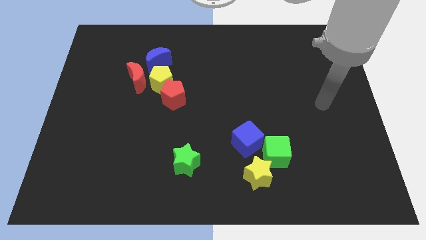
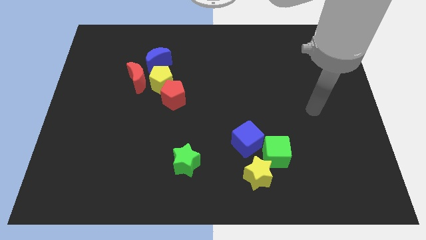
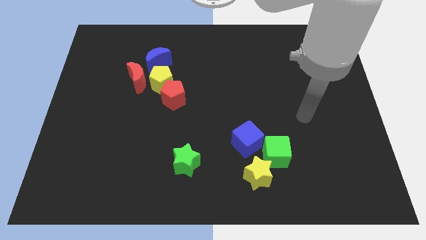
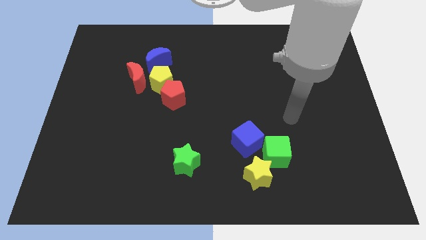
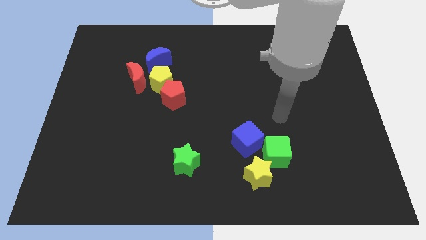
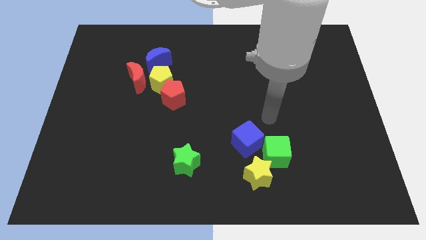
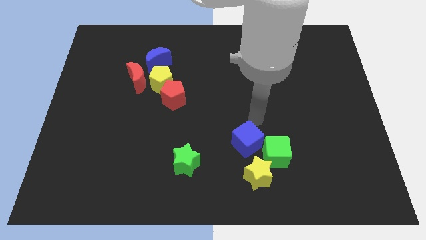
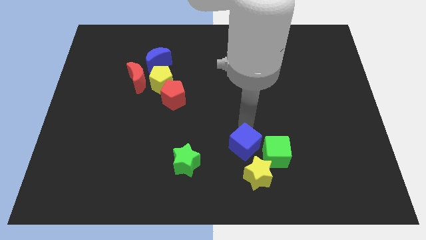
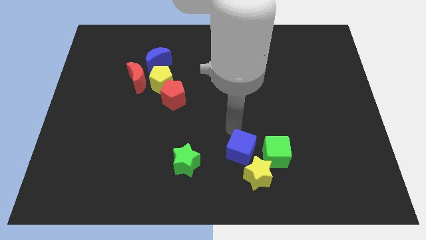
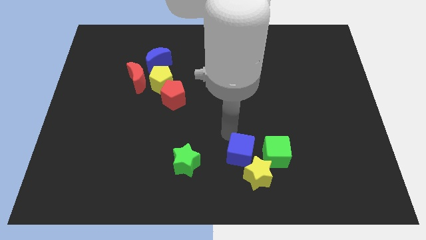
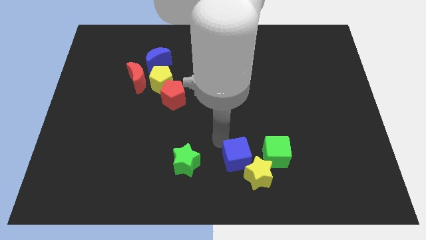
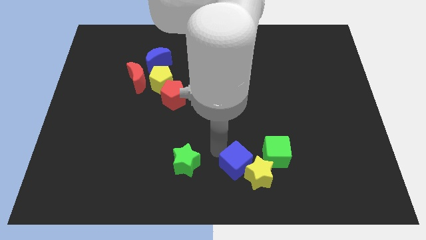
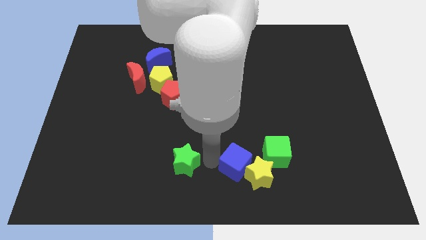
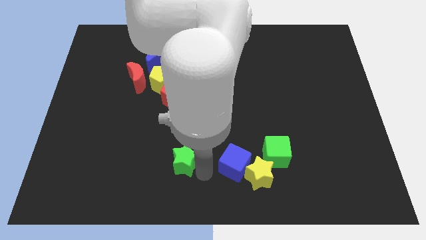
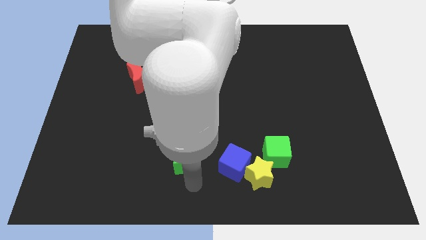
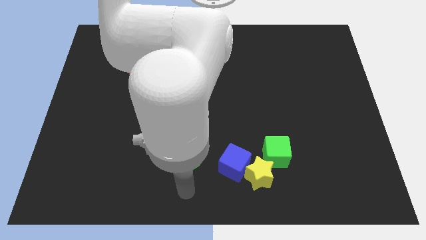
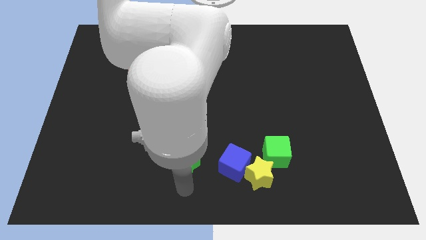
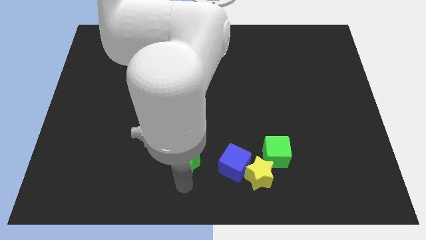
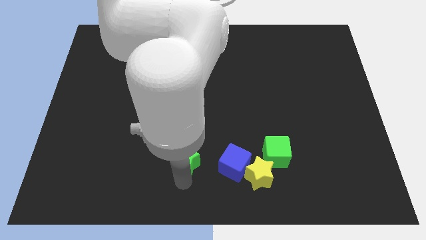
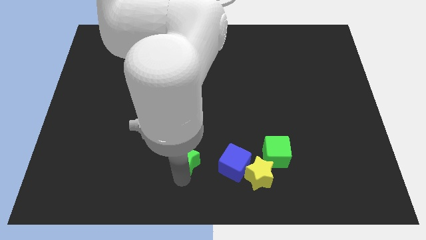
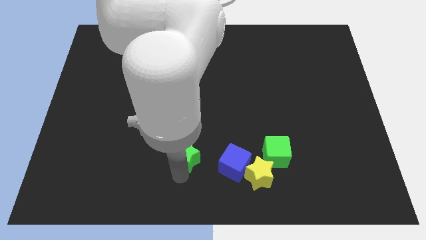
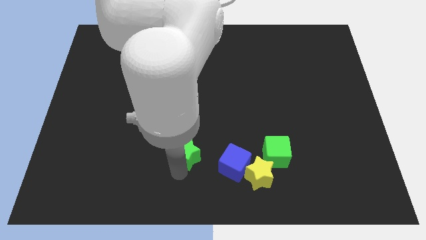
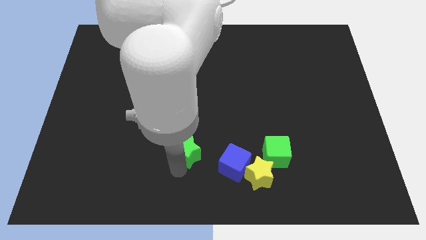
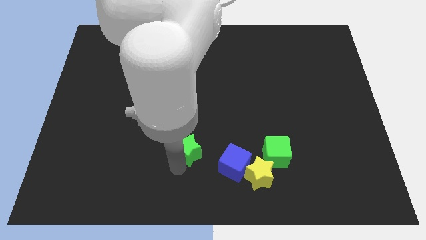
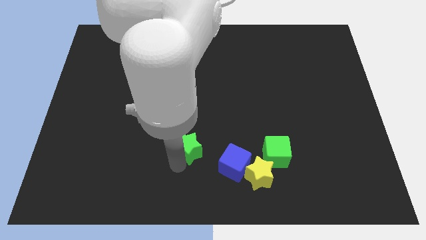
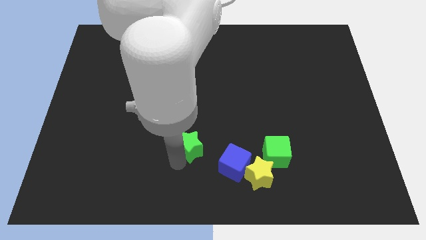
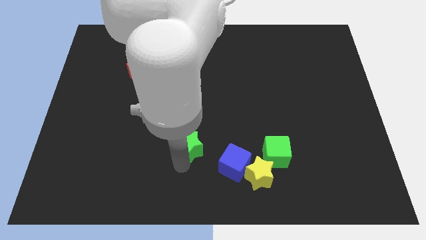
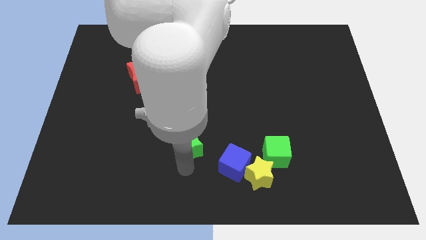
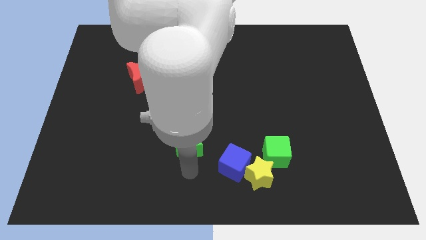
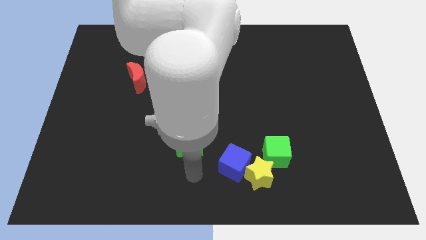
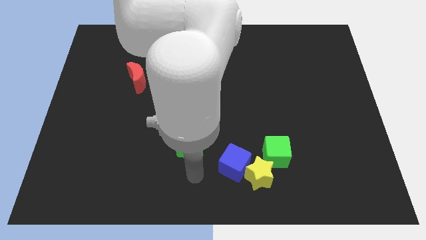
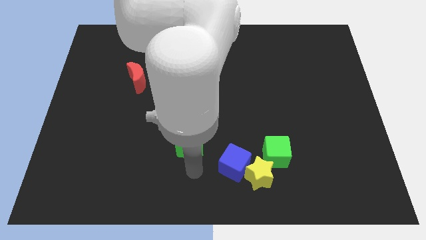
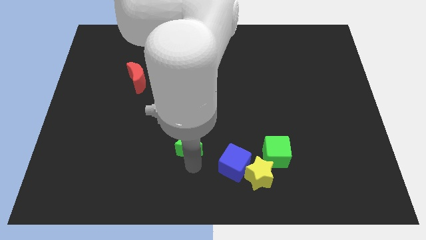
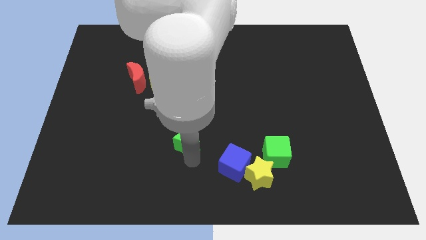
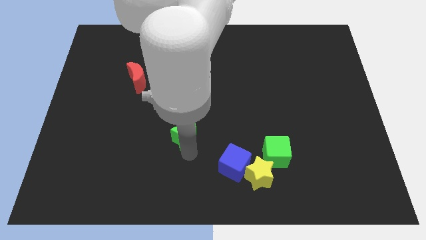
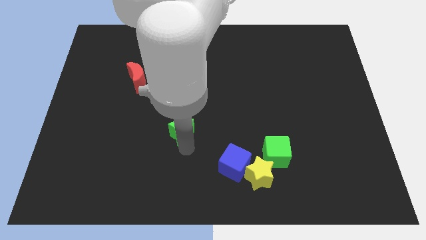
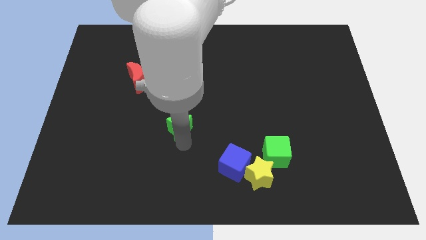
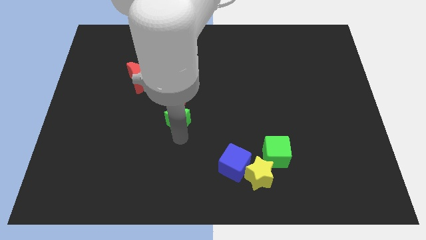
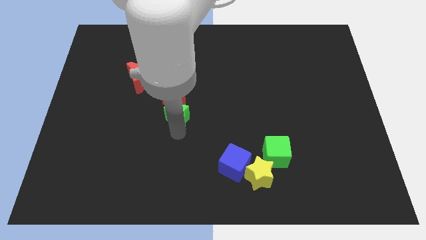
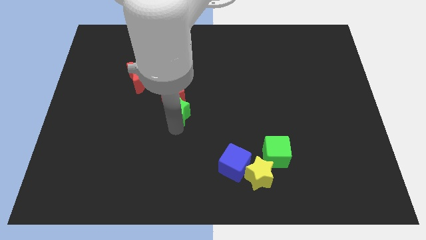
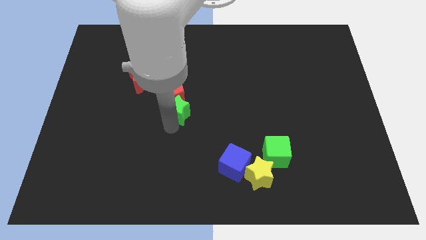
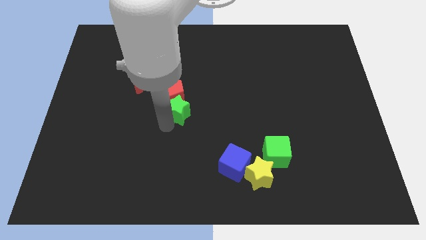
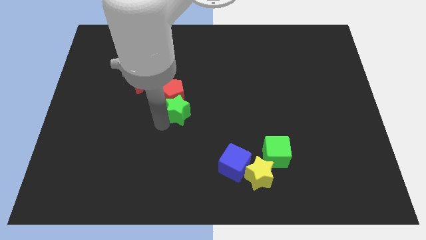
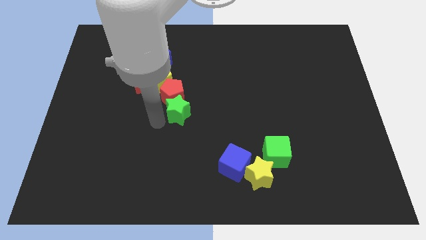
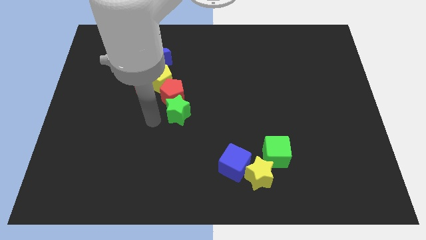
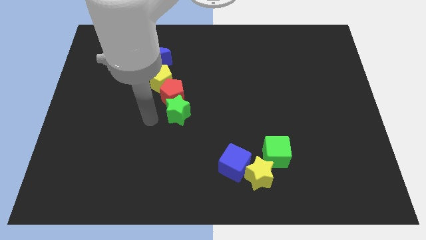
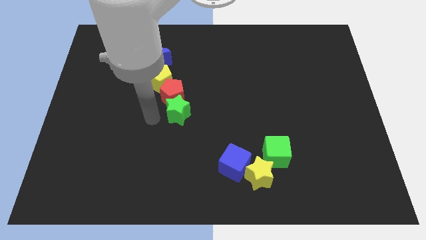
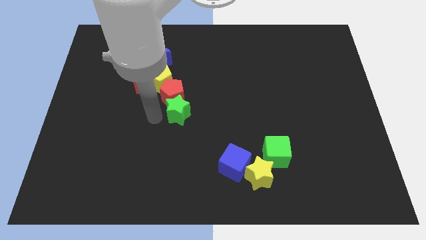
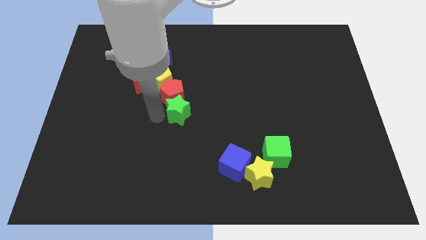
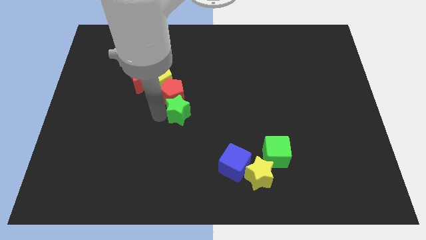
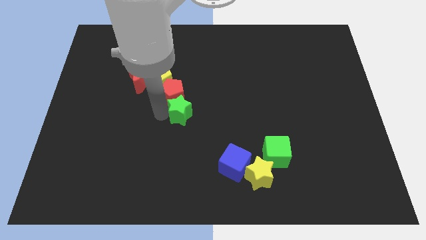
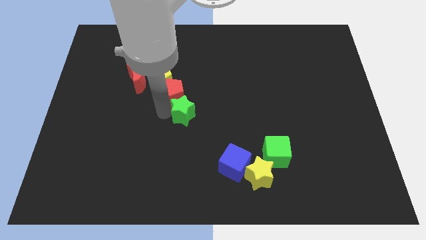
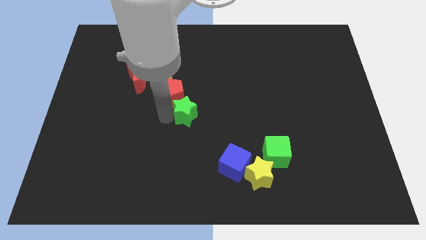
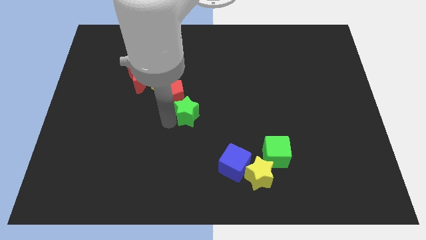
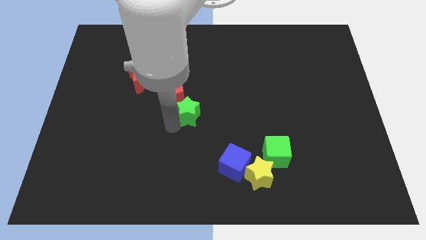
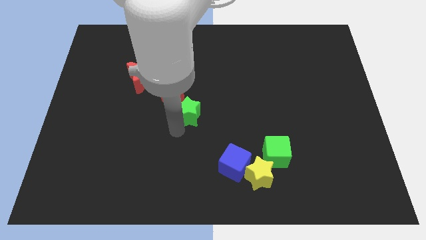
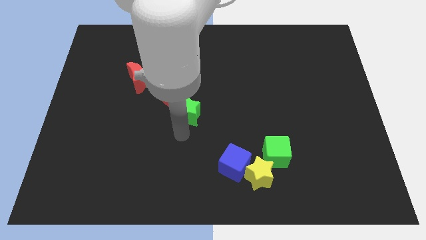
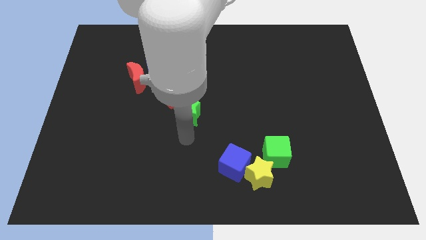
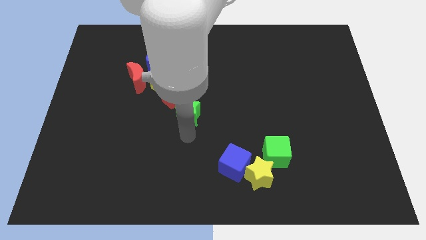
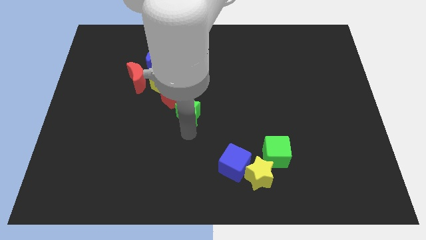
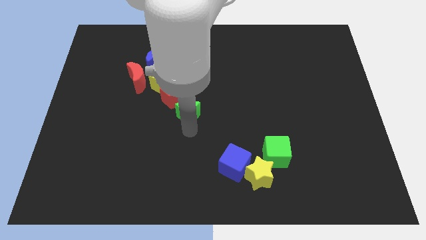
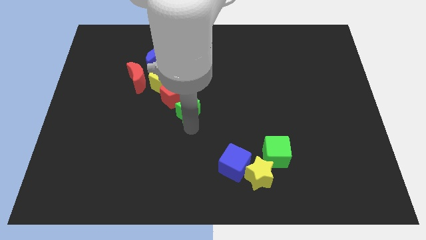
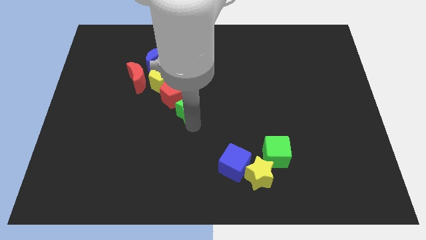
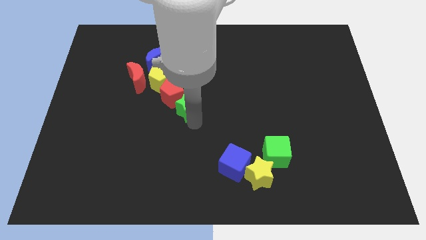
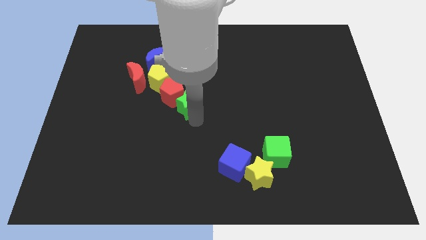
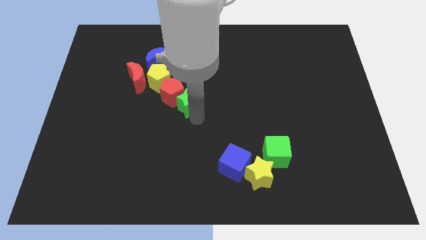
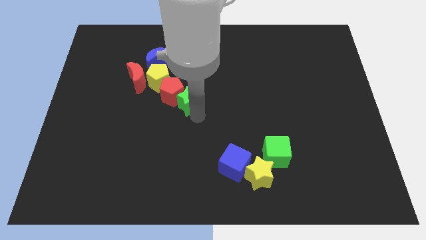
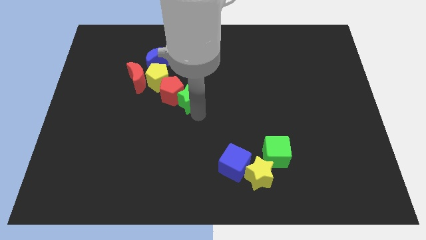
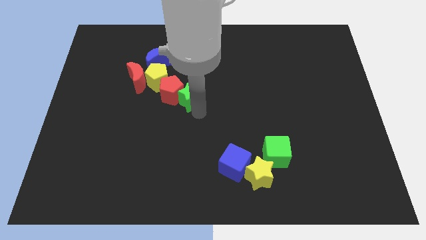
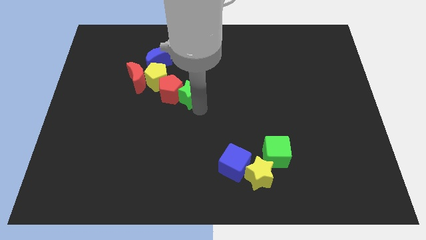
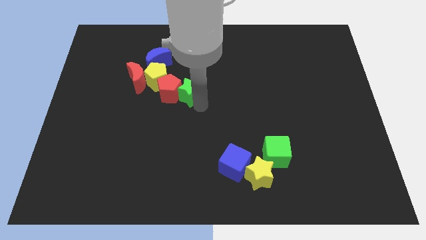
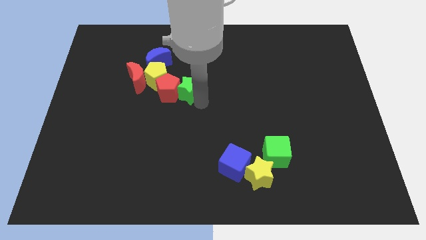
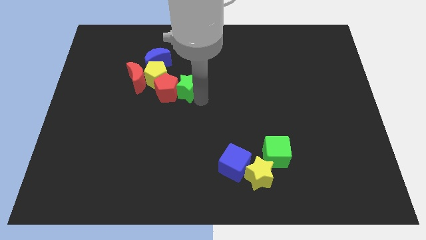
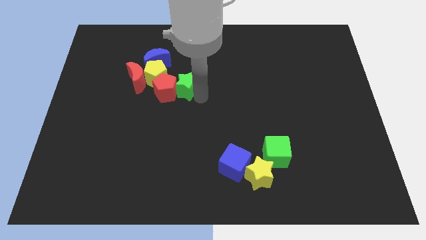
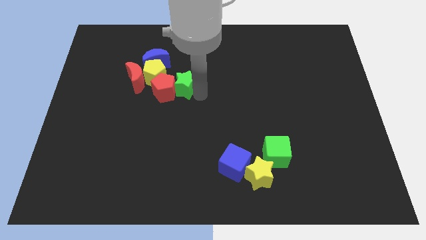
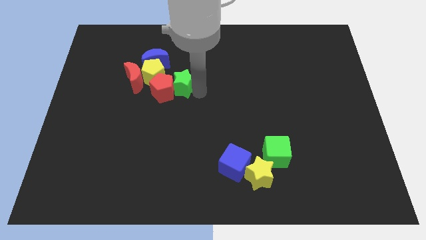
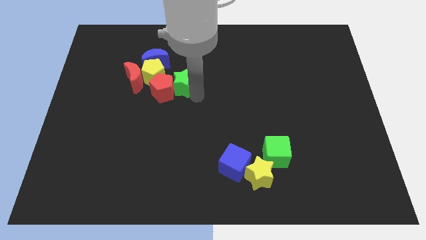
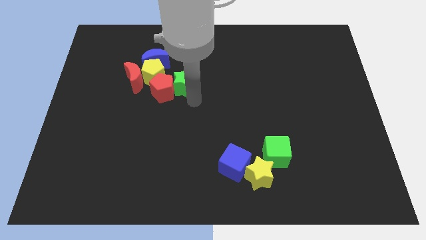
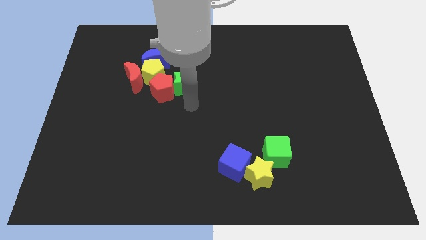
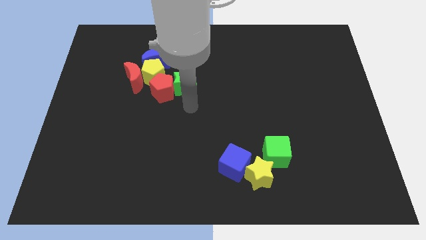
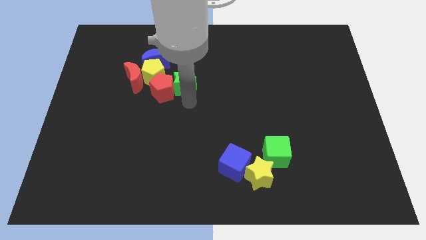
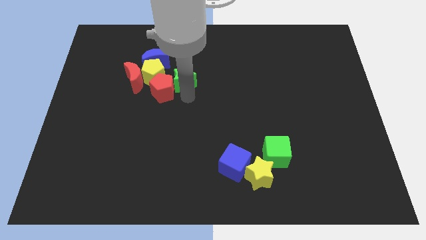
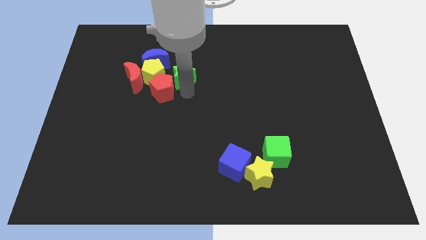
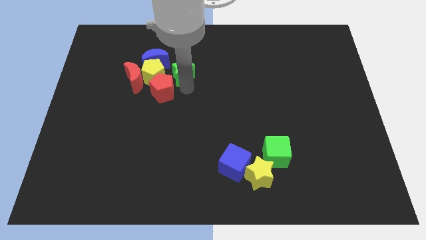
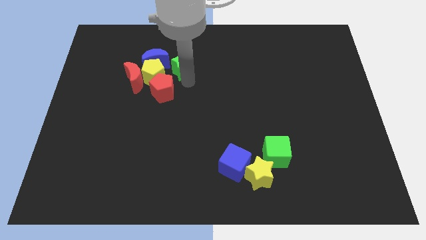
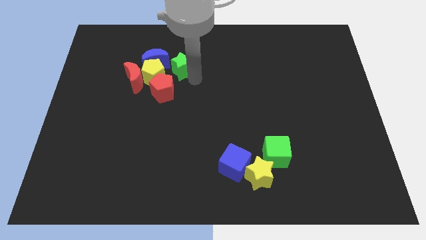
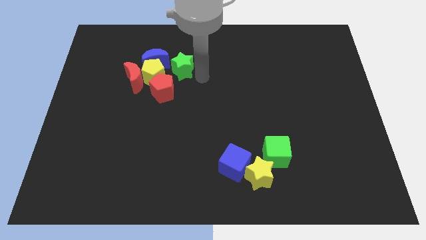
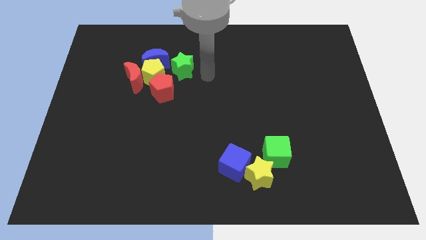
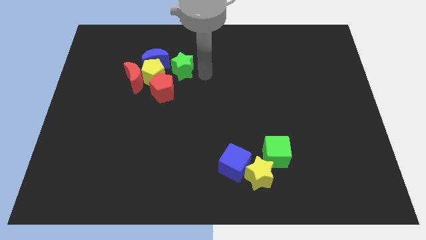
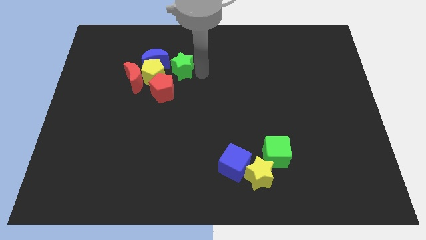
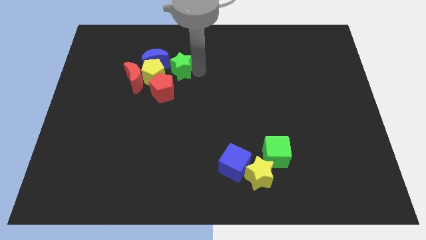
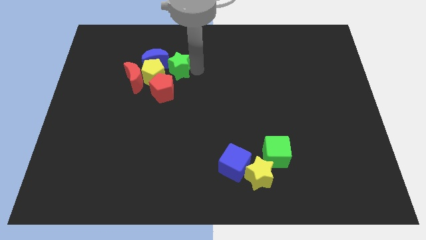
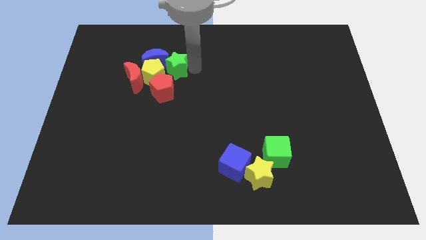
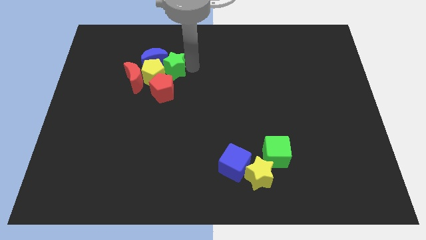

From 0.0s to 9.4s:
slide the green star to the blue moon
